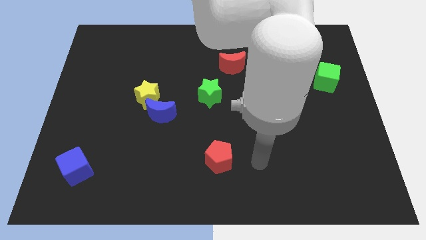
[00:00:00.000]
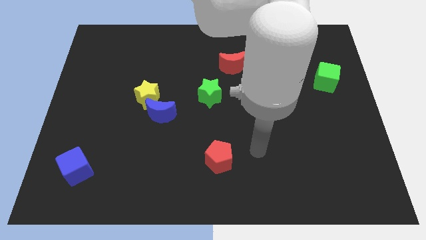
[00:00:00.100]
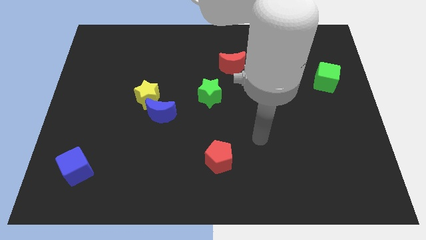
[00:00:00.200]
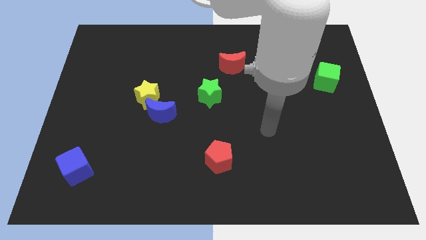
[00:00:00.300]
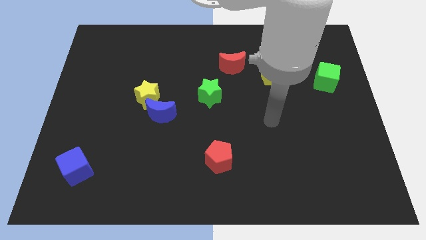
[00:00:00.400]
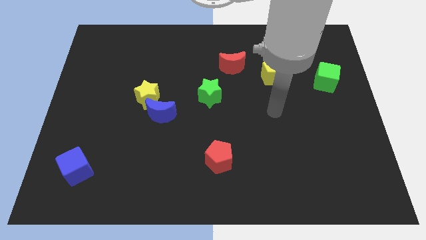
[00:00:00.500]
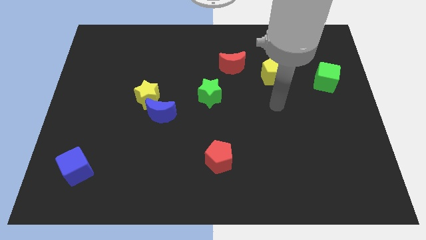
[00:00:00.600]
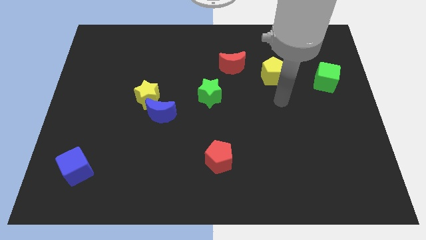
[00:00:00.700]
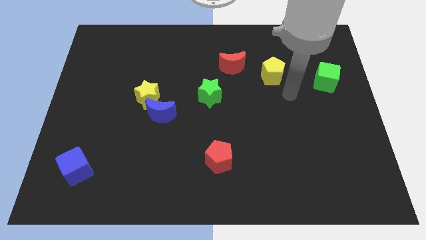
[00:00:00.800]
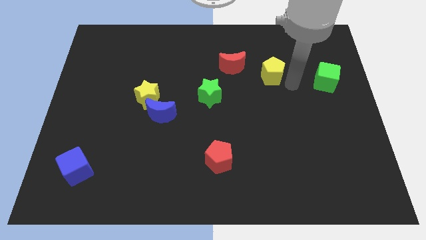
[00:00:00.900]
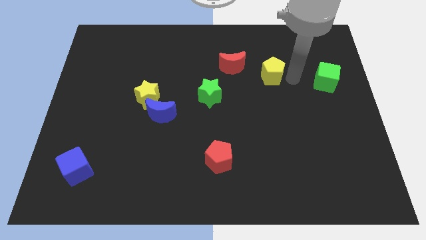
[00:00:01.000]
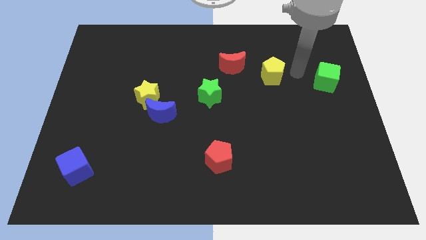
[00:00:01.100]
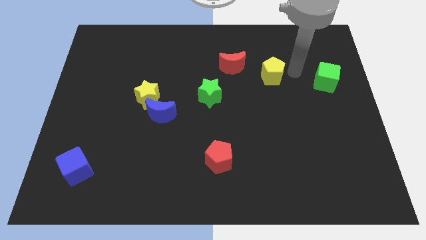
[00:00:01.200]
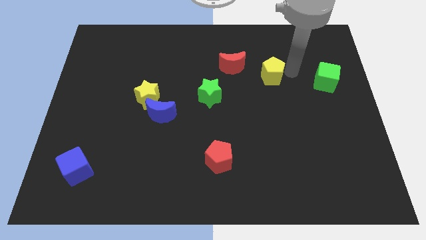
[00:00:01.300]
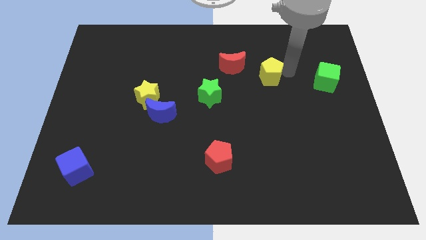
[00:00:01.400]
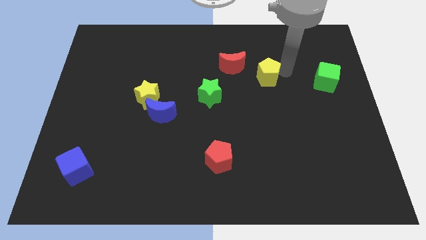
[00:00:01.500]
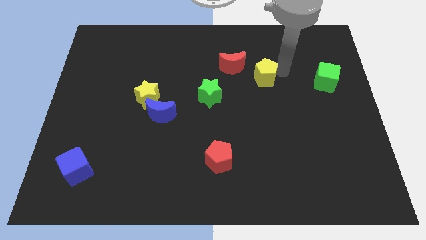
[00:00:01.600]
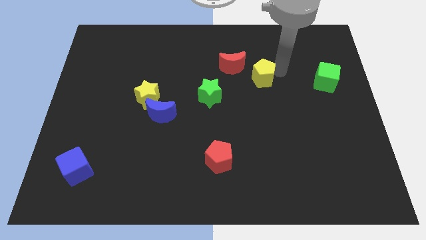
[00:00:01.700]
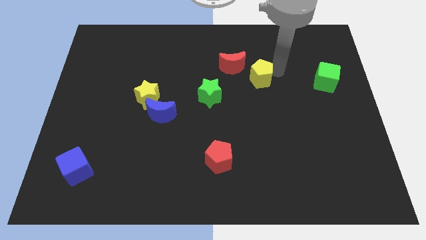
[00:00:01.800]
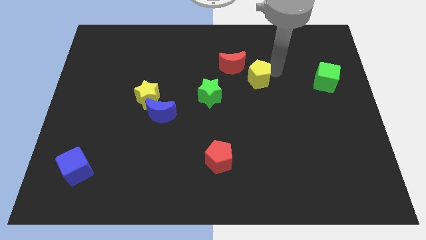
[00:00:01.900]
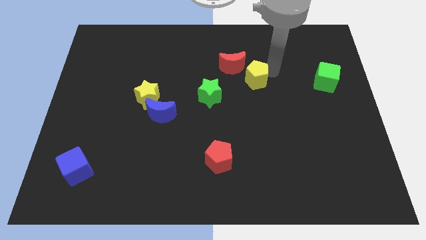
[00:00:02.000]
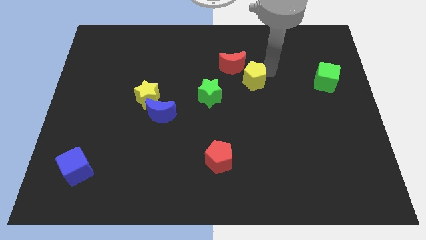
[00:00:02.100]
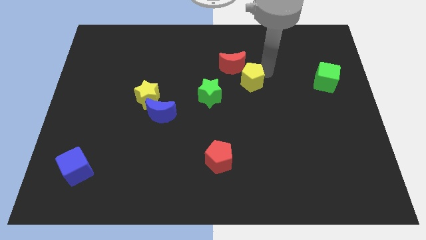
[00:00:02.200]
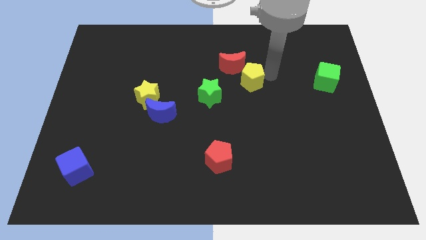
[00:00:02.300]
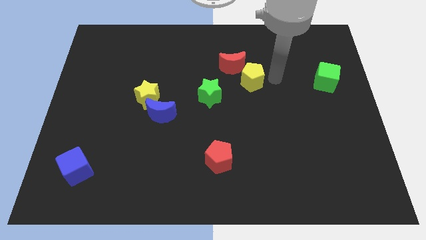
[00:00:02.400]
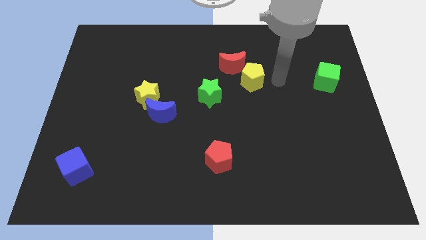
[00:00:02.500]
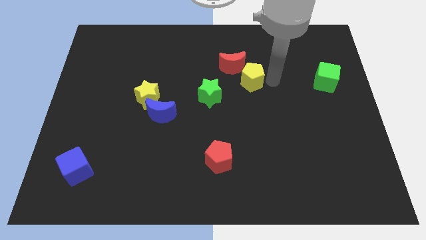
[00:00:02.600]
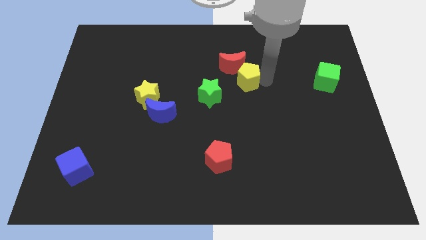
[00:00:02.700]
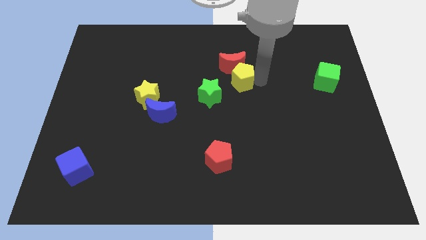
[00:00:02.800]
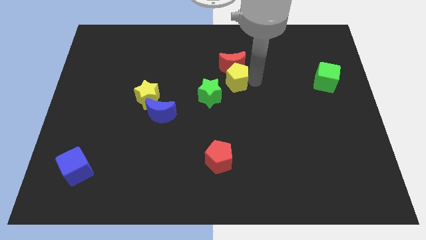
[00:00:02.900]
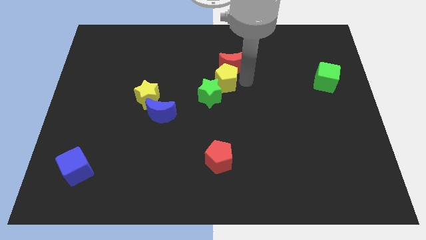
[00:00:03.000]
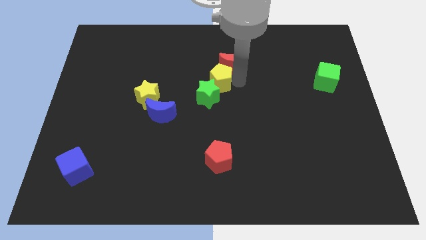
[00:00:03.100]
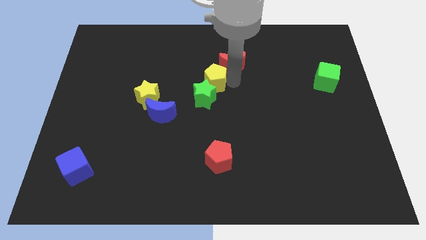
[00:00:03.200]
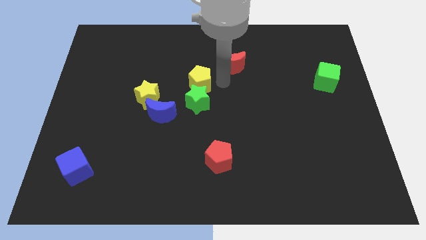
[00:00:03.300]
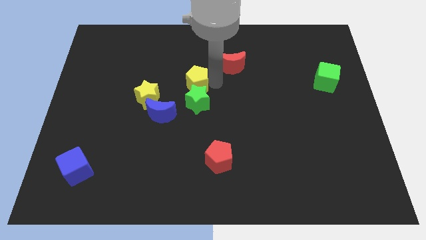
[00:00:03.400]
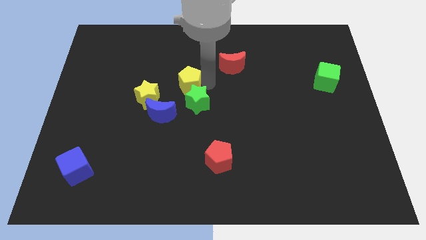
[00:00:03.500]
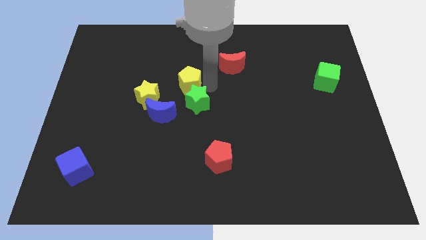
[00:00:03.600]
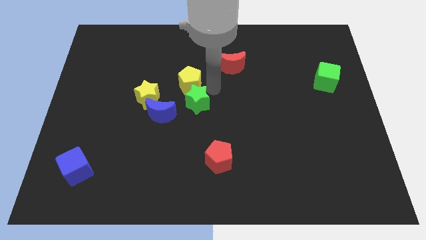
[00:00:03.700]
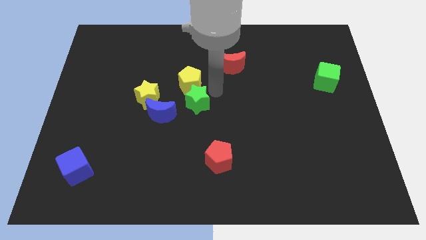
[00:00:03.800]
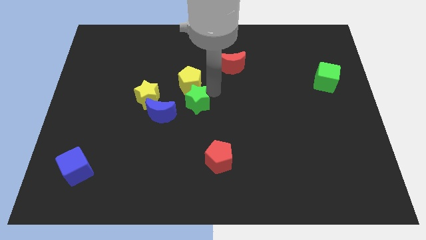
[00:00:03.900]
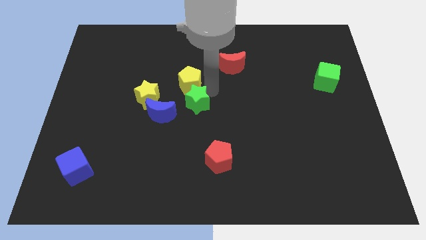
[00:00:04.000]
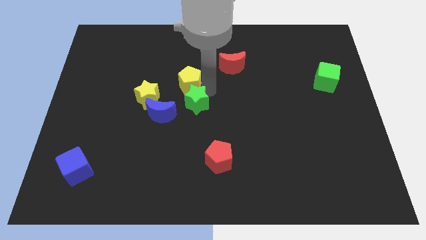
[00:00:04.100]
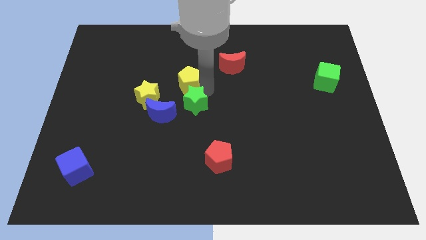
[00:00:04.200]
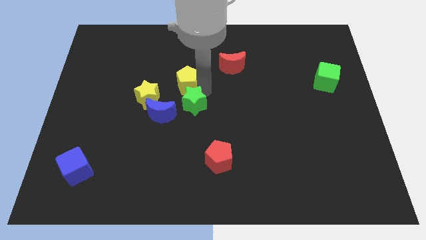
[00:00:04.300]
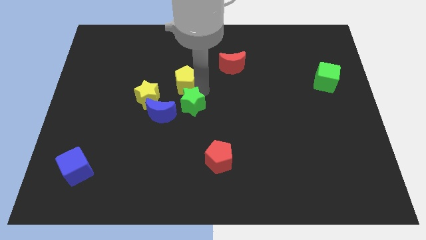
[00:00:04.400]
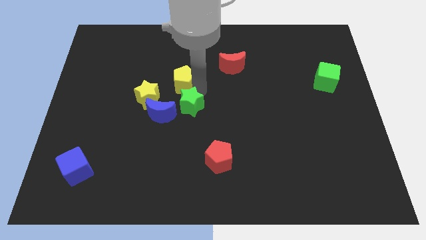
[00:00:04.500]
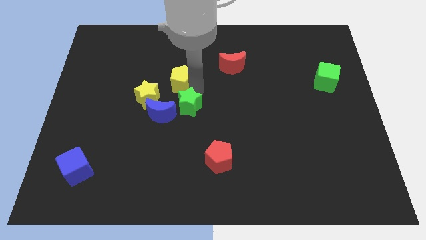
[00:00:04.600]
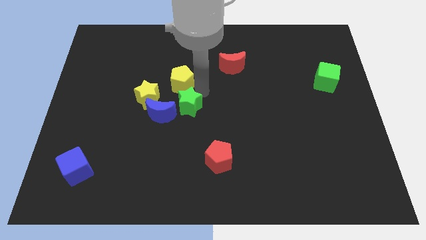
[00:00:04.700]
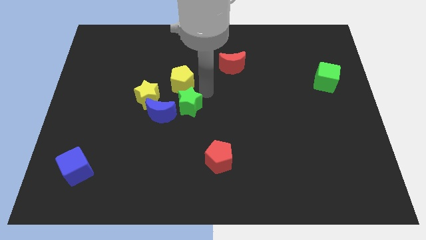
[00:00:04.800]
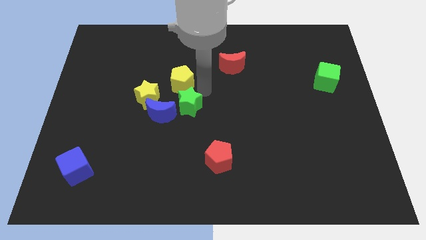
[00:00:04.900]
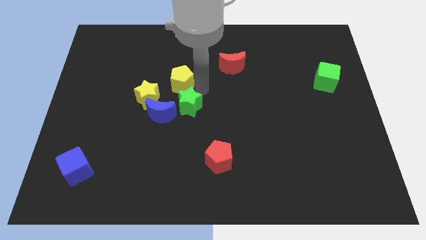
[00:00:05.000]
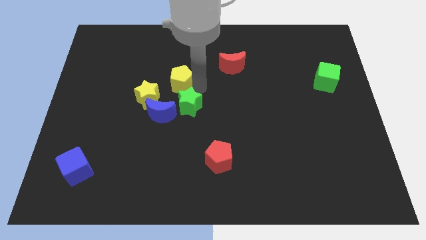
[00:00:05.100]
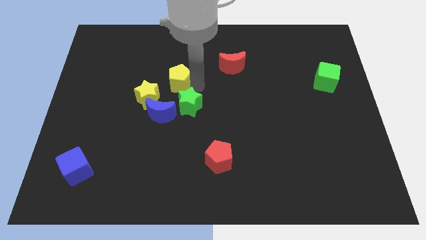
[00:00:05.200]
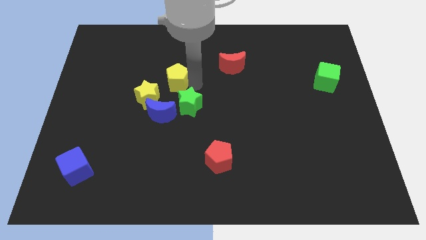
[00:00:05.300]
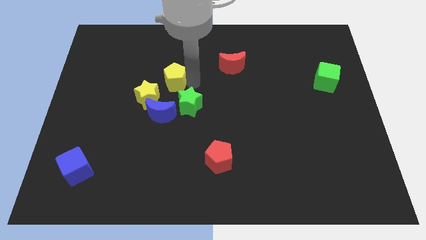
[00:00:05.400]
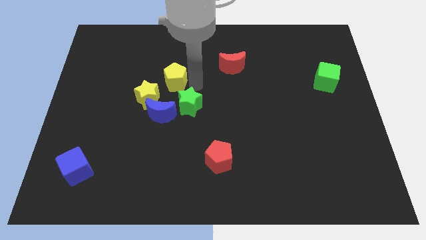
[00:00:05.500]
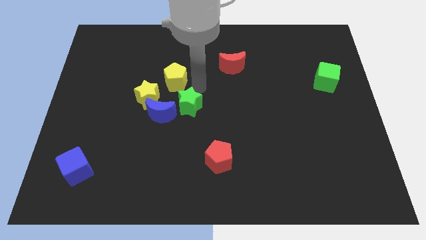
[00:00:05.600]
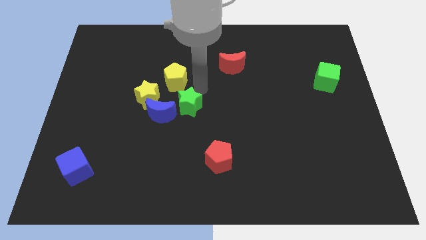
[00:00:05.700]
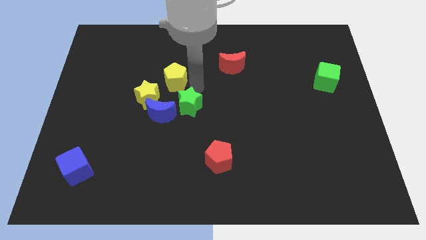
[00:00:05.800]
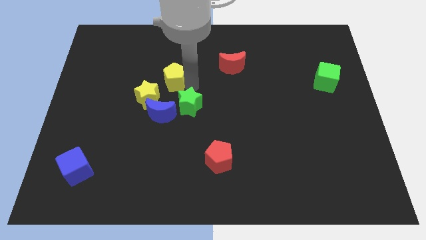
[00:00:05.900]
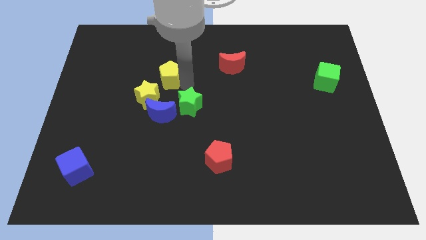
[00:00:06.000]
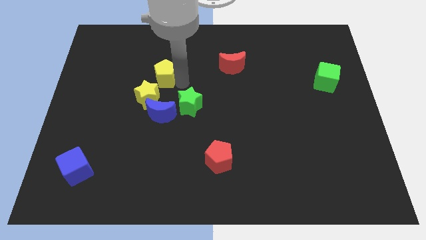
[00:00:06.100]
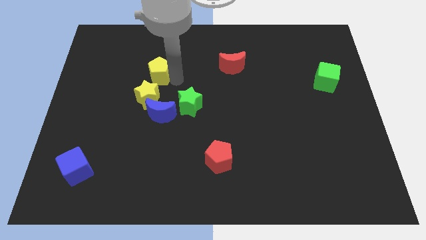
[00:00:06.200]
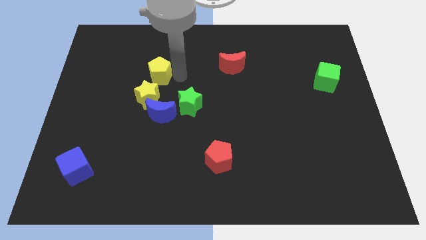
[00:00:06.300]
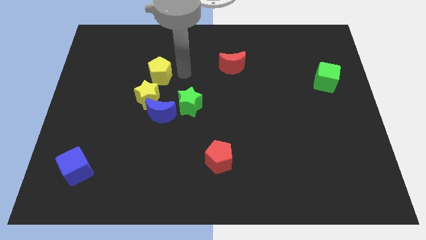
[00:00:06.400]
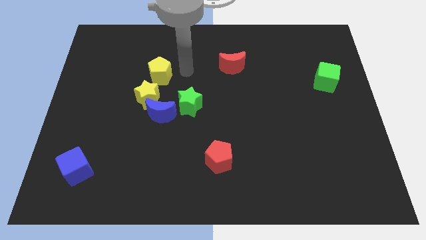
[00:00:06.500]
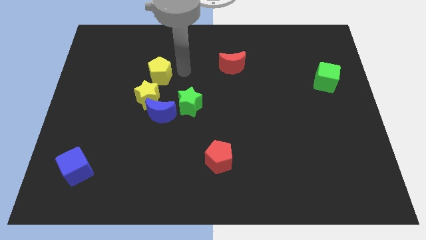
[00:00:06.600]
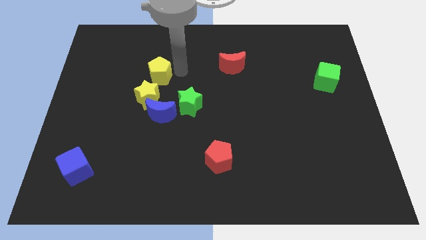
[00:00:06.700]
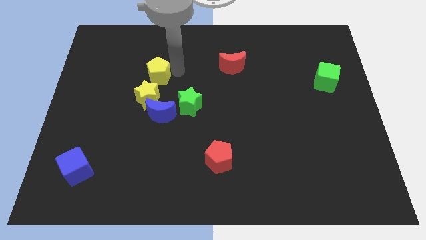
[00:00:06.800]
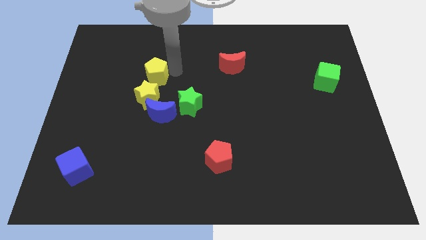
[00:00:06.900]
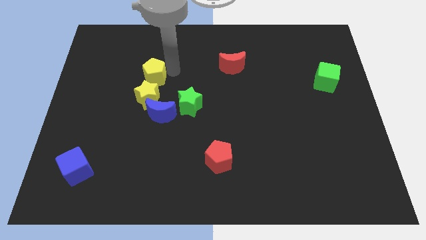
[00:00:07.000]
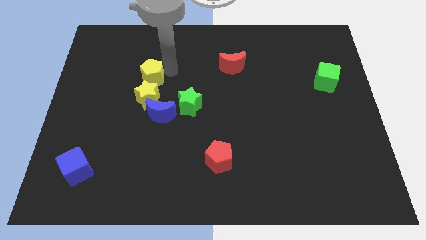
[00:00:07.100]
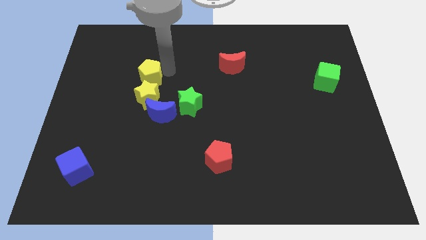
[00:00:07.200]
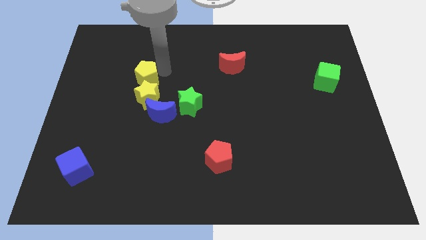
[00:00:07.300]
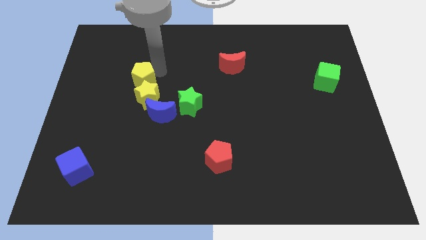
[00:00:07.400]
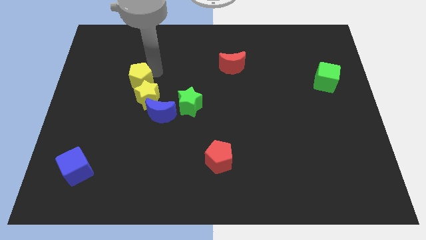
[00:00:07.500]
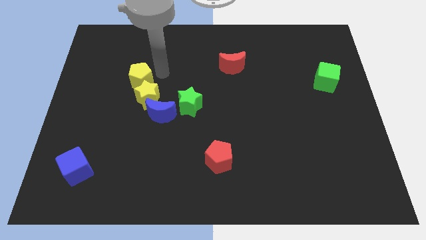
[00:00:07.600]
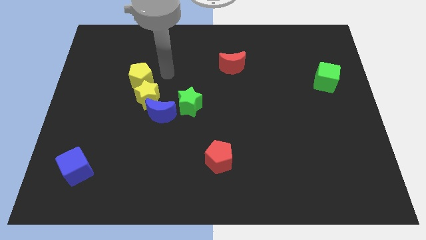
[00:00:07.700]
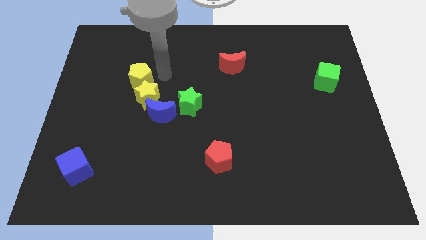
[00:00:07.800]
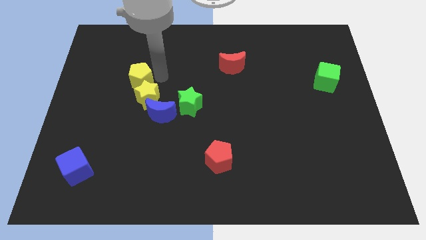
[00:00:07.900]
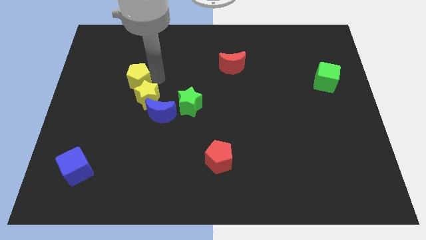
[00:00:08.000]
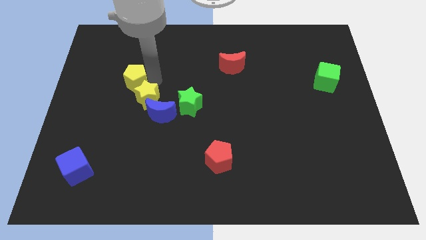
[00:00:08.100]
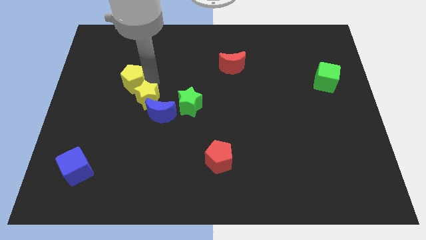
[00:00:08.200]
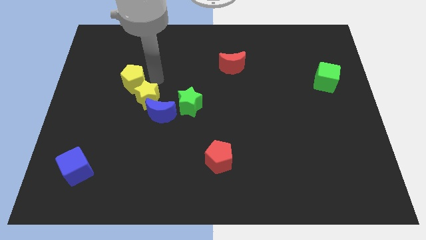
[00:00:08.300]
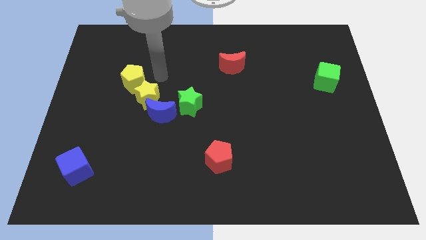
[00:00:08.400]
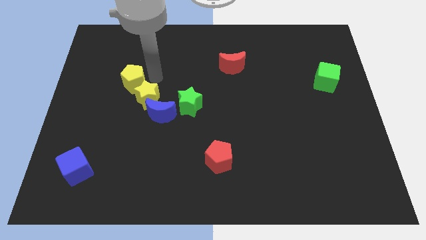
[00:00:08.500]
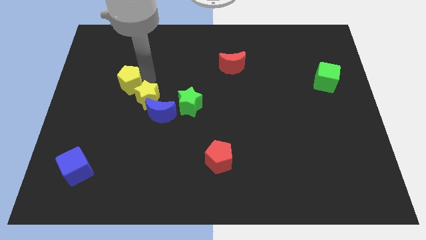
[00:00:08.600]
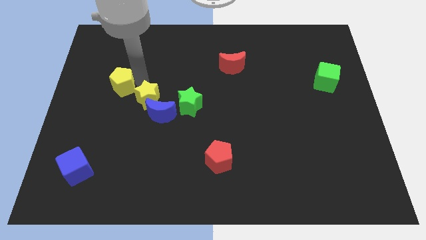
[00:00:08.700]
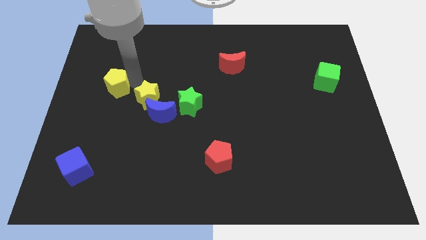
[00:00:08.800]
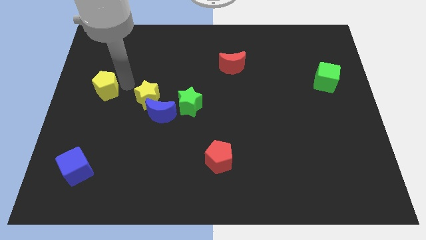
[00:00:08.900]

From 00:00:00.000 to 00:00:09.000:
move the yellow pentagon to the left side
